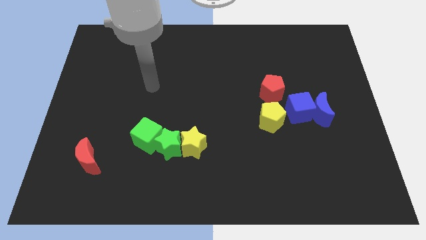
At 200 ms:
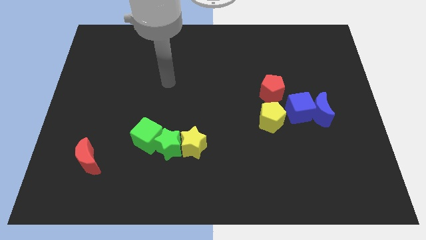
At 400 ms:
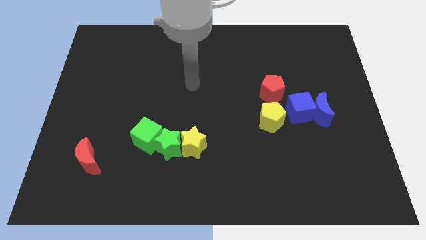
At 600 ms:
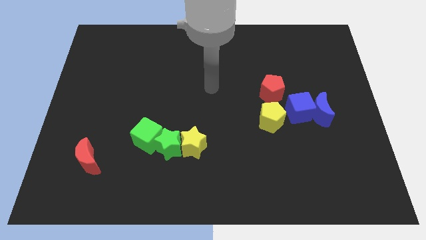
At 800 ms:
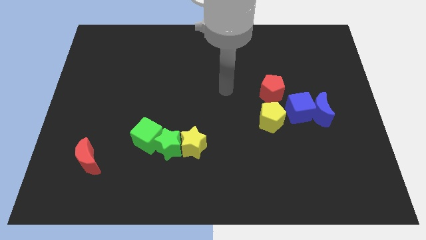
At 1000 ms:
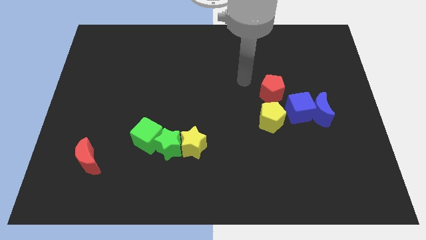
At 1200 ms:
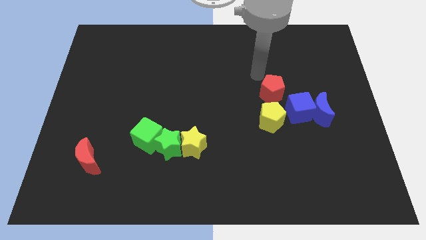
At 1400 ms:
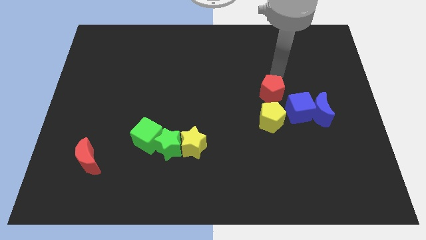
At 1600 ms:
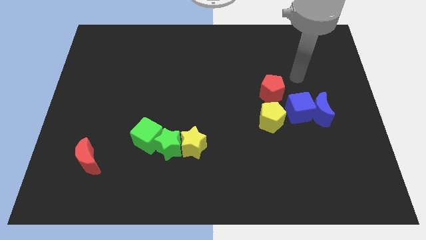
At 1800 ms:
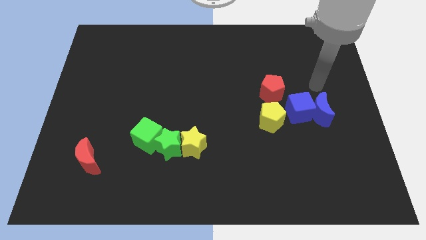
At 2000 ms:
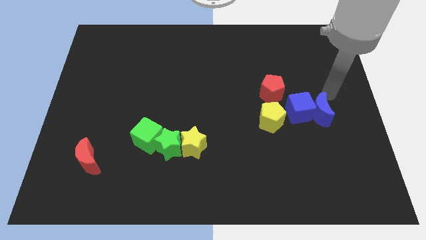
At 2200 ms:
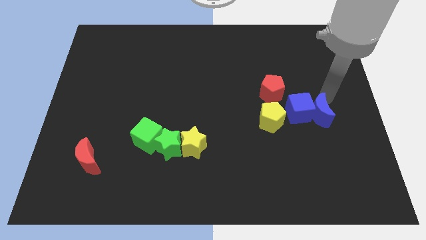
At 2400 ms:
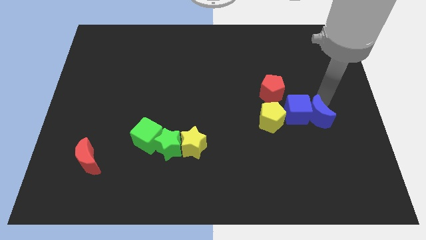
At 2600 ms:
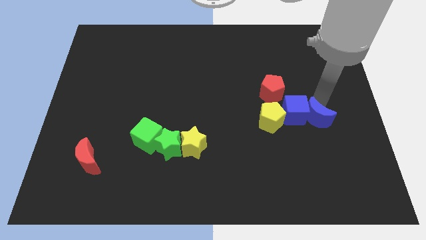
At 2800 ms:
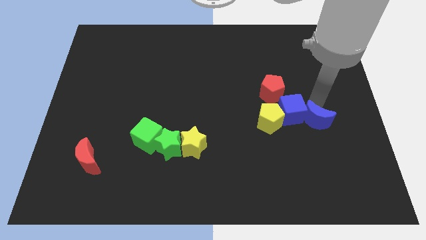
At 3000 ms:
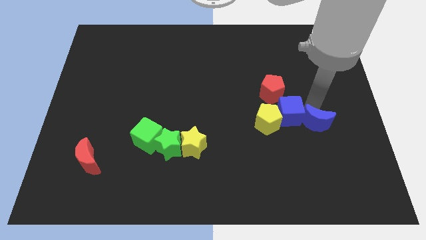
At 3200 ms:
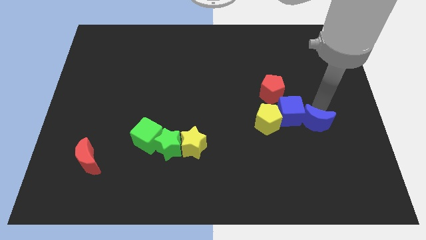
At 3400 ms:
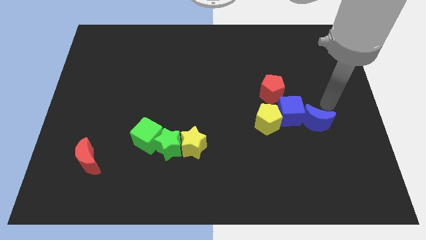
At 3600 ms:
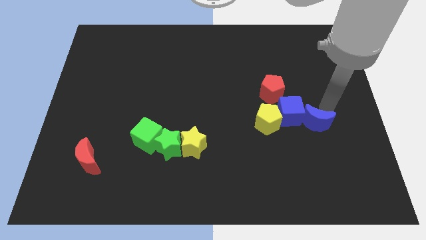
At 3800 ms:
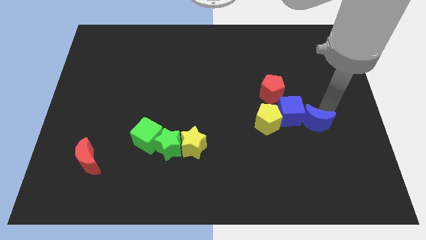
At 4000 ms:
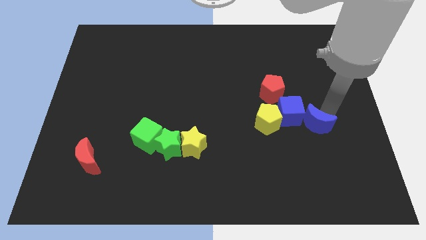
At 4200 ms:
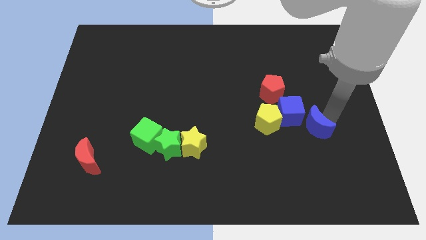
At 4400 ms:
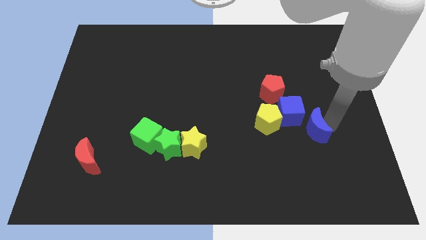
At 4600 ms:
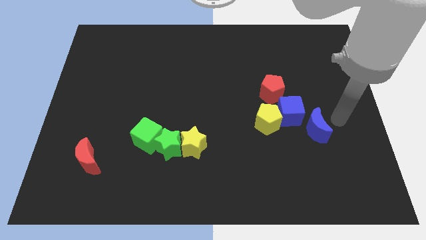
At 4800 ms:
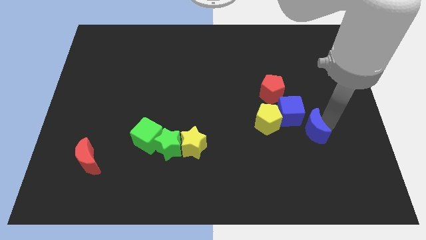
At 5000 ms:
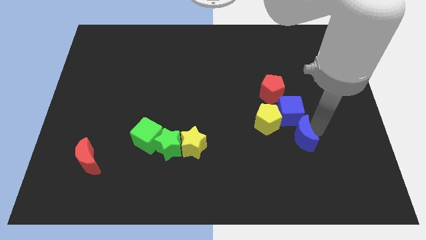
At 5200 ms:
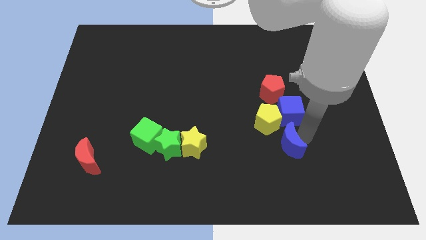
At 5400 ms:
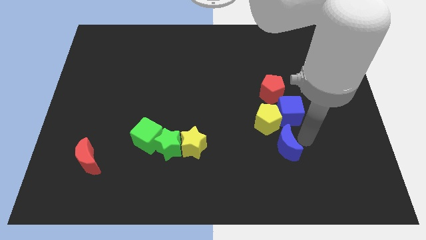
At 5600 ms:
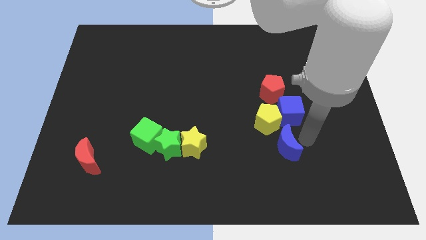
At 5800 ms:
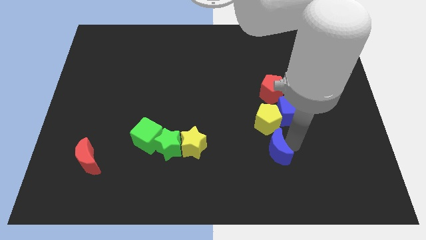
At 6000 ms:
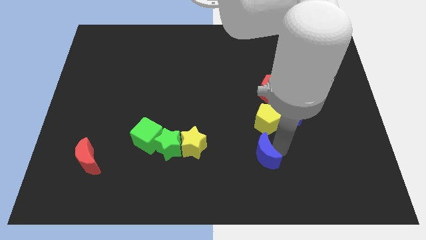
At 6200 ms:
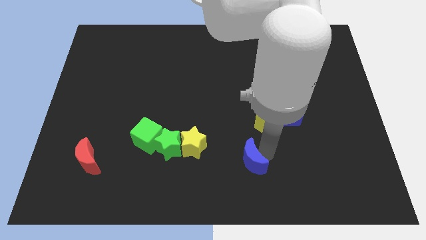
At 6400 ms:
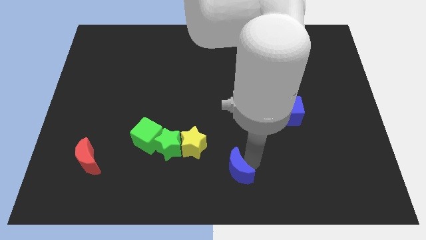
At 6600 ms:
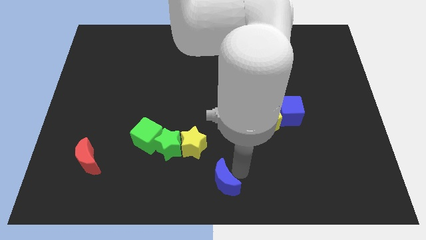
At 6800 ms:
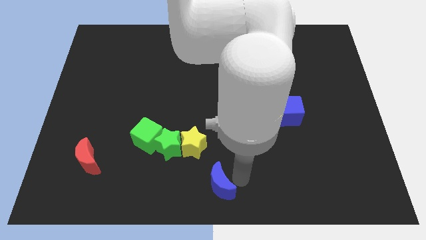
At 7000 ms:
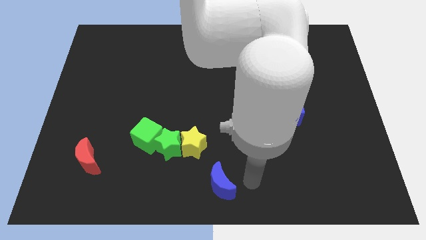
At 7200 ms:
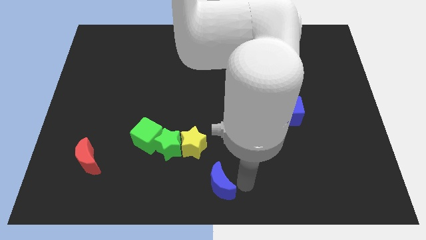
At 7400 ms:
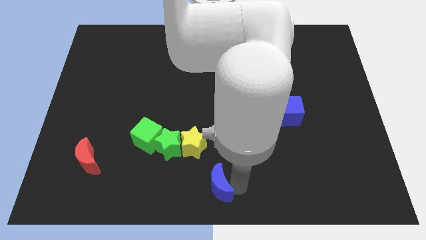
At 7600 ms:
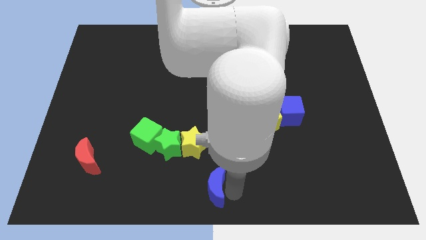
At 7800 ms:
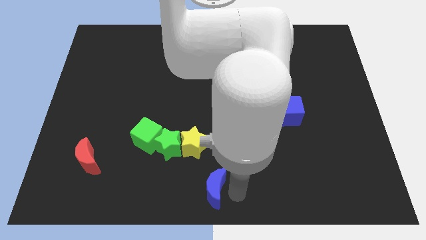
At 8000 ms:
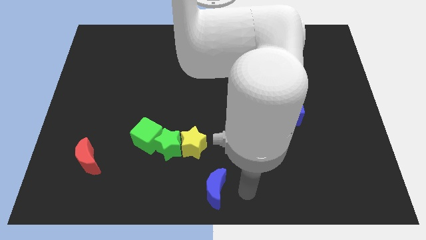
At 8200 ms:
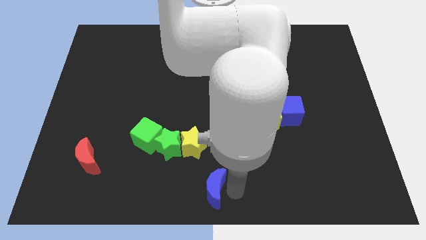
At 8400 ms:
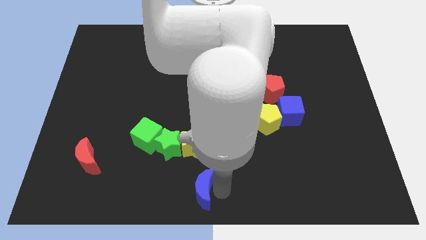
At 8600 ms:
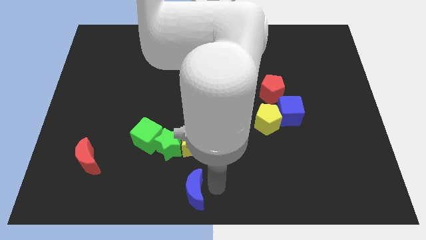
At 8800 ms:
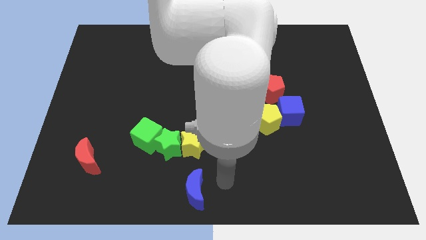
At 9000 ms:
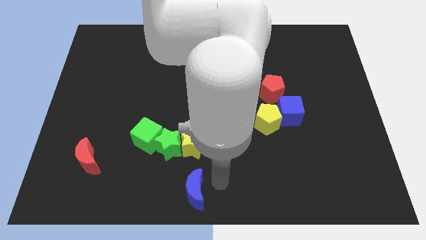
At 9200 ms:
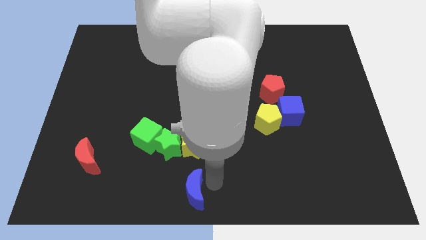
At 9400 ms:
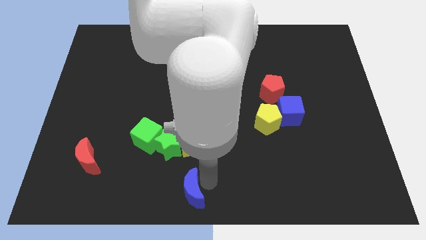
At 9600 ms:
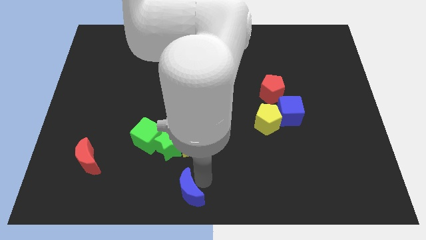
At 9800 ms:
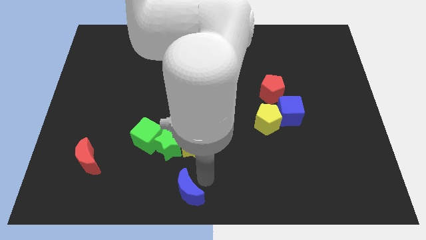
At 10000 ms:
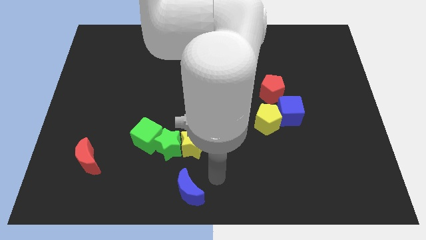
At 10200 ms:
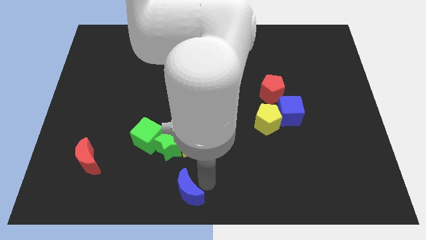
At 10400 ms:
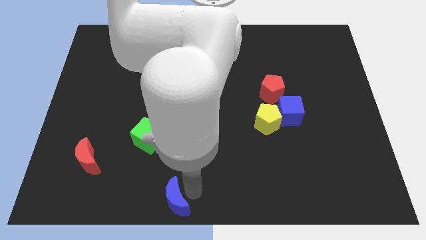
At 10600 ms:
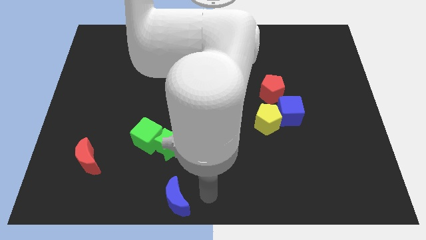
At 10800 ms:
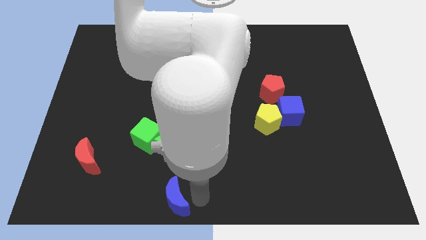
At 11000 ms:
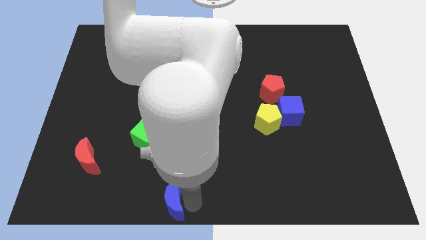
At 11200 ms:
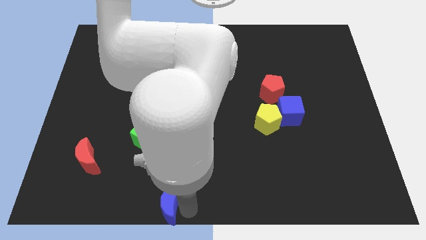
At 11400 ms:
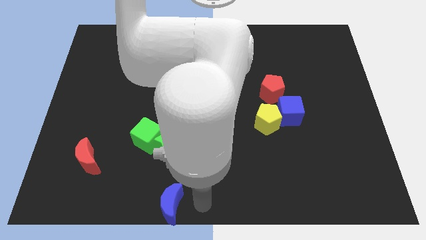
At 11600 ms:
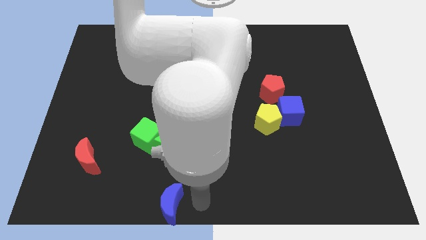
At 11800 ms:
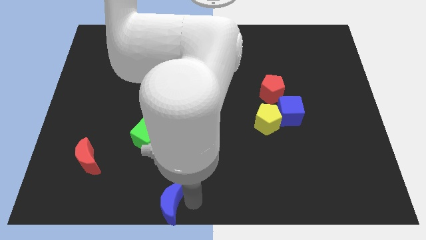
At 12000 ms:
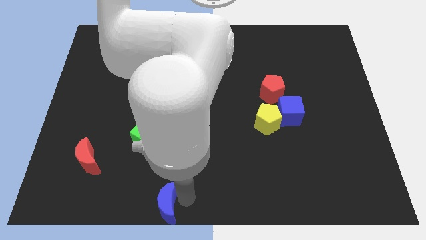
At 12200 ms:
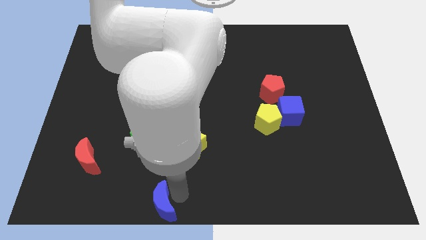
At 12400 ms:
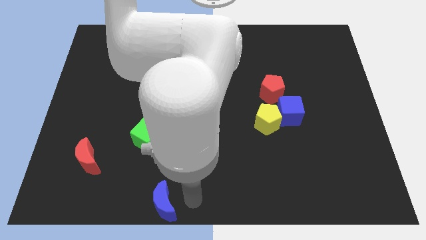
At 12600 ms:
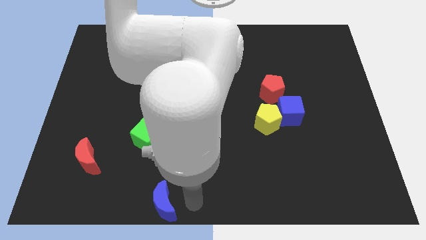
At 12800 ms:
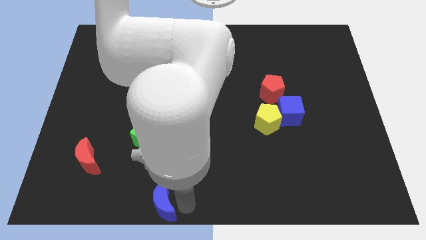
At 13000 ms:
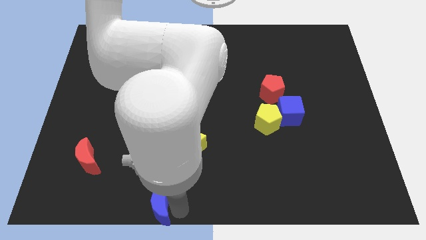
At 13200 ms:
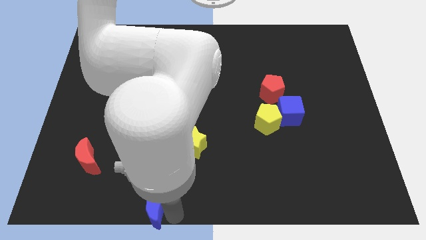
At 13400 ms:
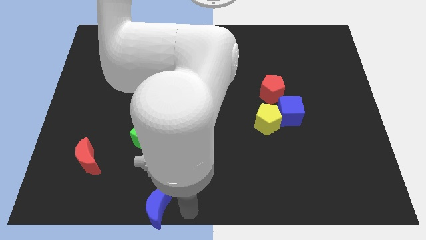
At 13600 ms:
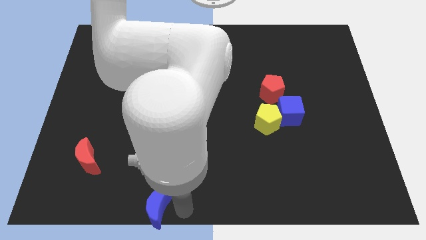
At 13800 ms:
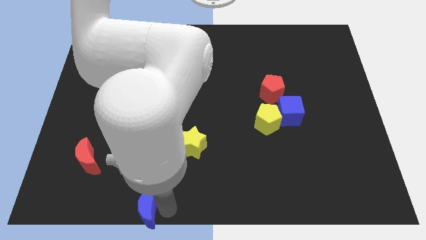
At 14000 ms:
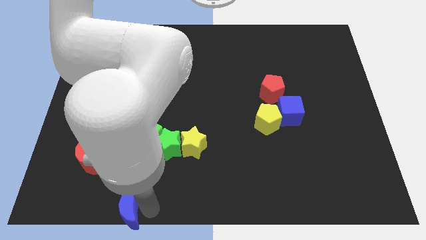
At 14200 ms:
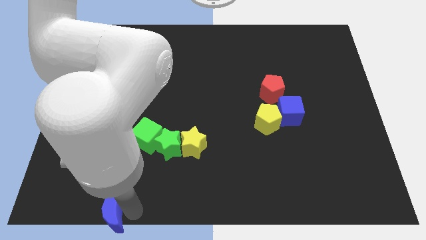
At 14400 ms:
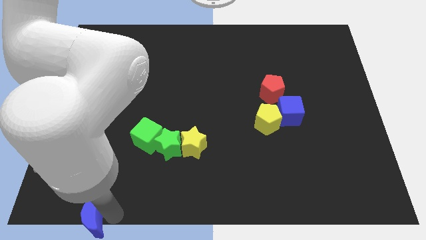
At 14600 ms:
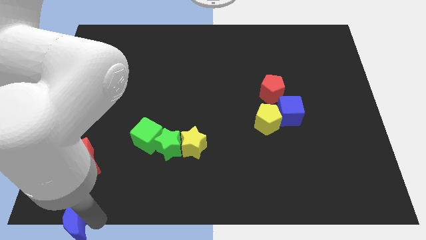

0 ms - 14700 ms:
push the blue moon to the lower left corner
